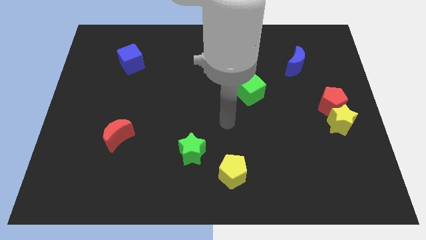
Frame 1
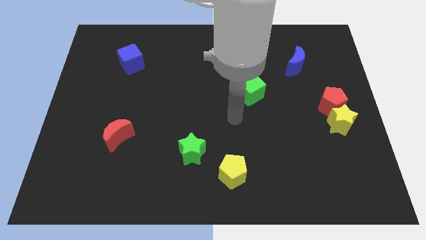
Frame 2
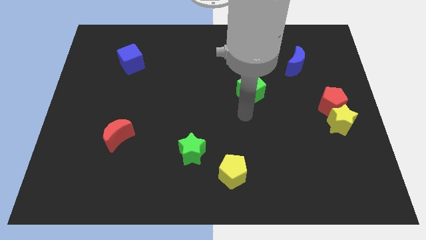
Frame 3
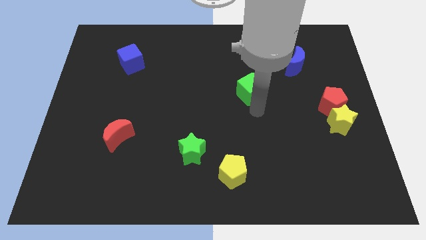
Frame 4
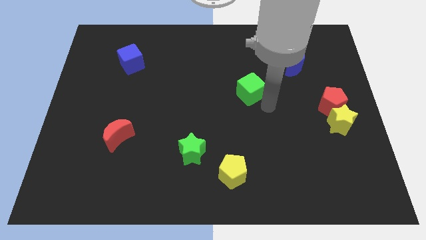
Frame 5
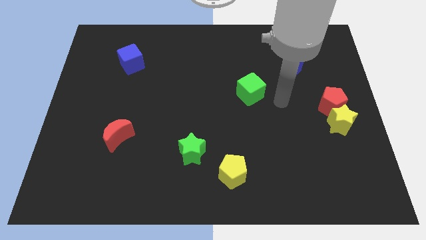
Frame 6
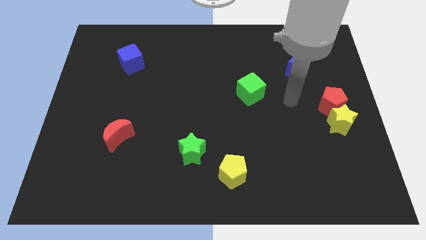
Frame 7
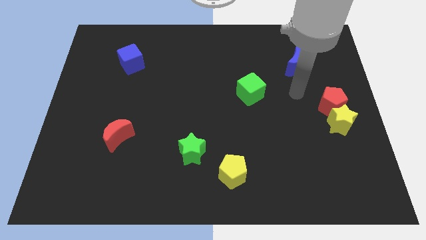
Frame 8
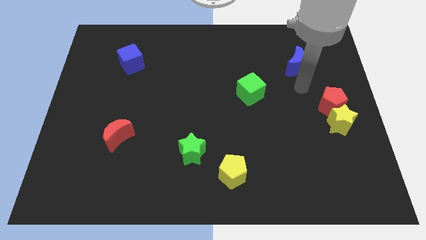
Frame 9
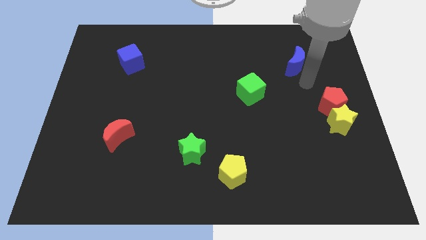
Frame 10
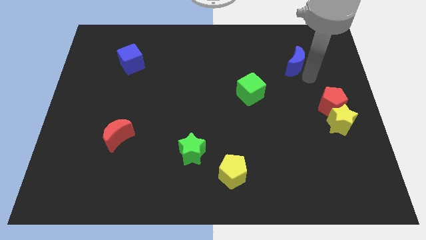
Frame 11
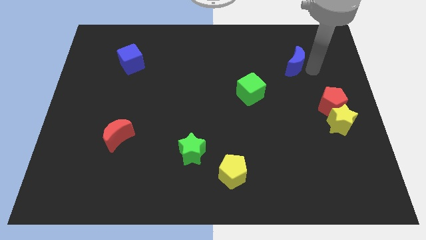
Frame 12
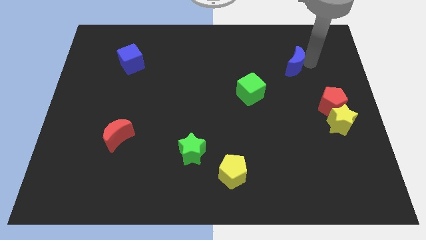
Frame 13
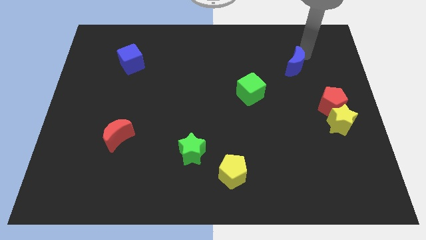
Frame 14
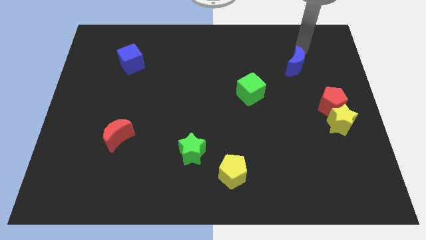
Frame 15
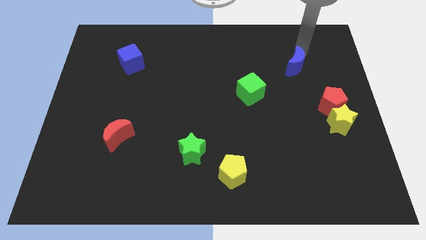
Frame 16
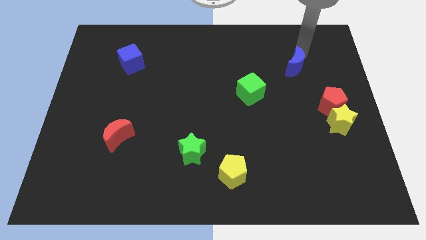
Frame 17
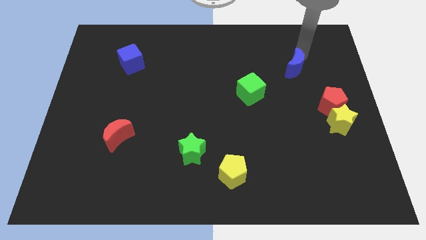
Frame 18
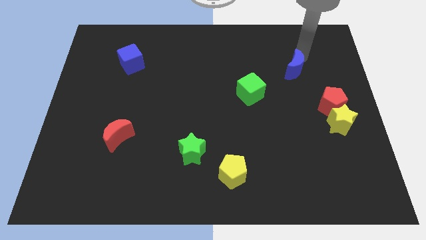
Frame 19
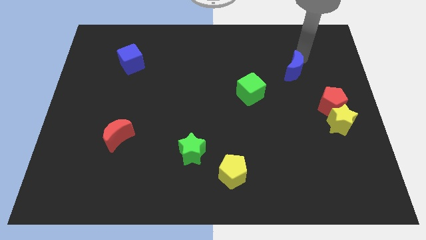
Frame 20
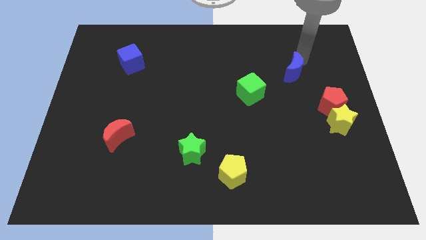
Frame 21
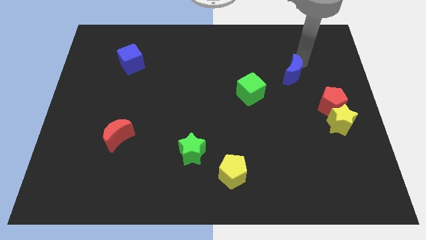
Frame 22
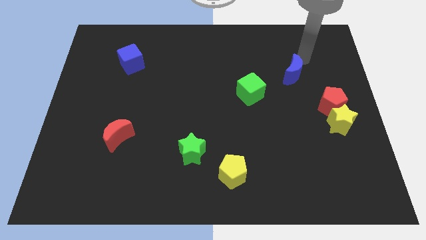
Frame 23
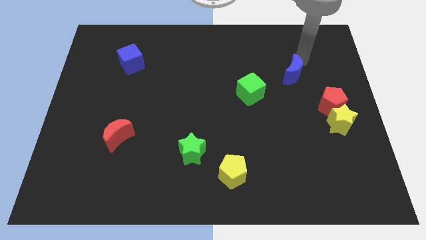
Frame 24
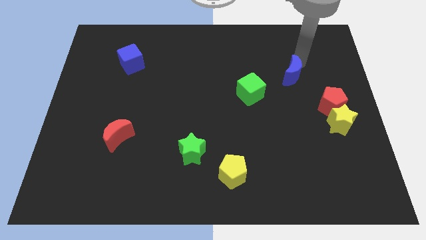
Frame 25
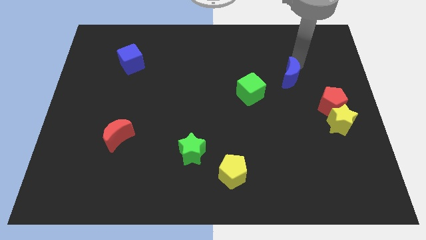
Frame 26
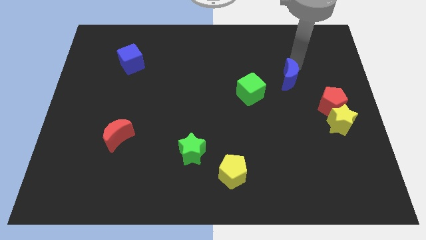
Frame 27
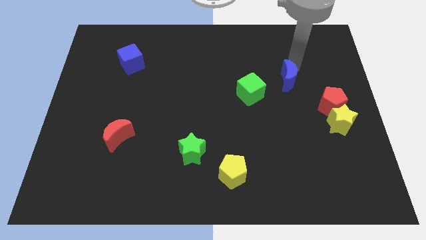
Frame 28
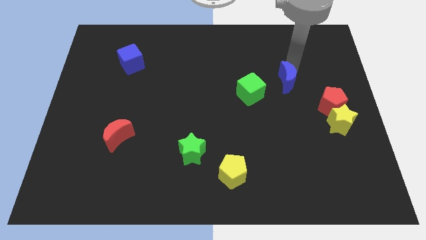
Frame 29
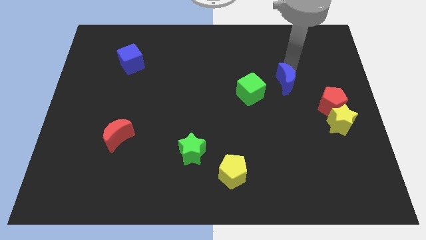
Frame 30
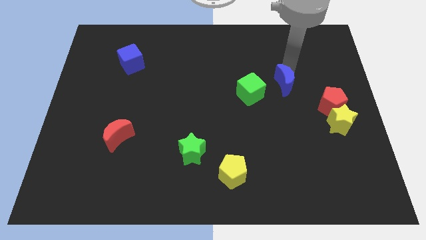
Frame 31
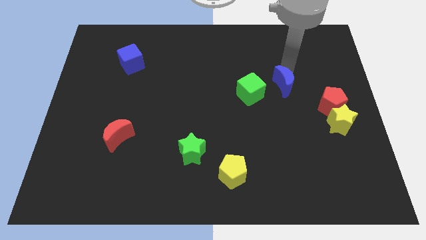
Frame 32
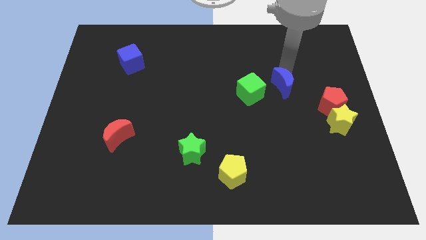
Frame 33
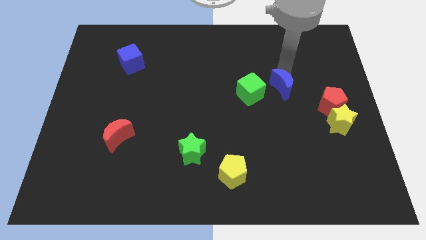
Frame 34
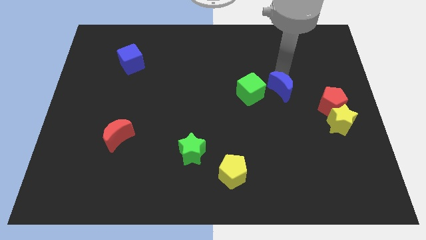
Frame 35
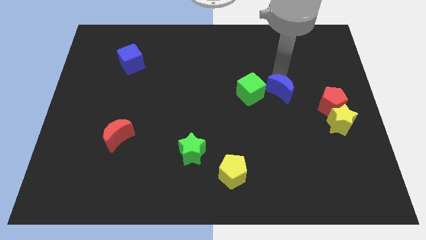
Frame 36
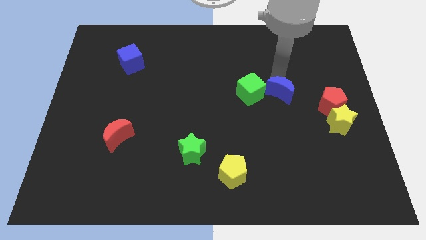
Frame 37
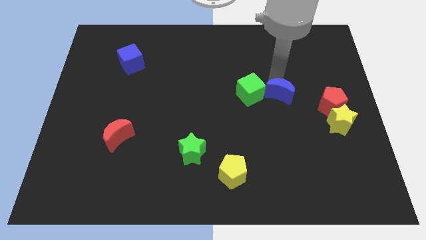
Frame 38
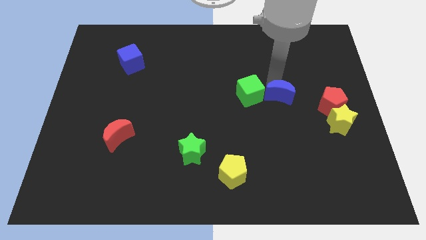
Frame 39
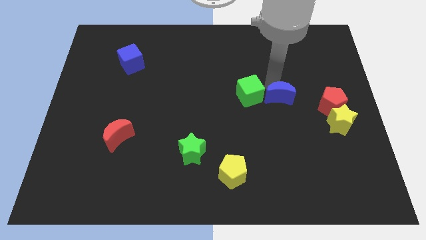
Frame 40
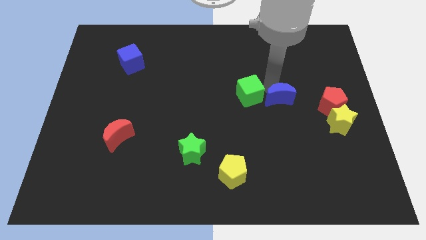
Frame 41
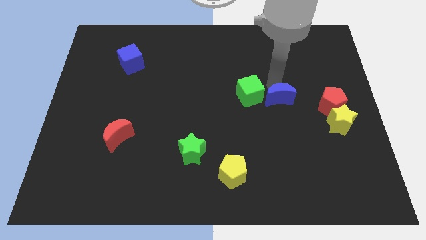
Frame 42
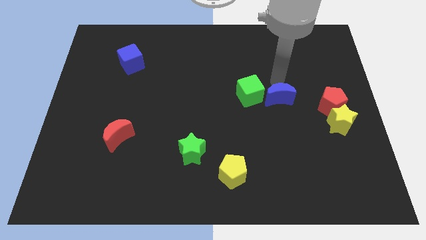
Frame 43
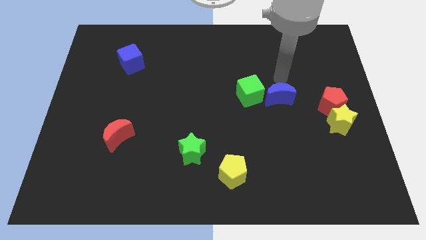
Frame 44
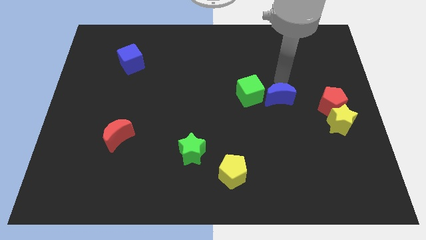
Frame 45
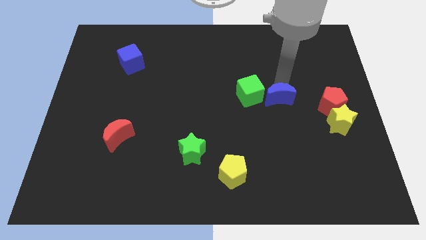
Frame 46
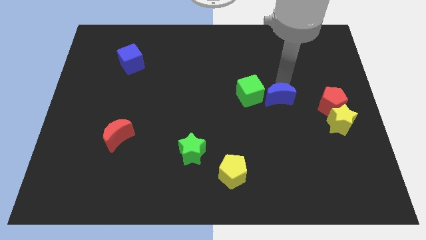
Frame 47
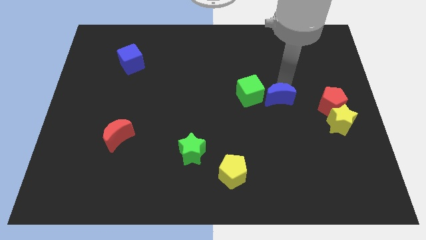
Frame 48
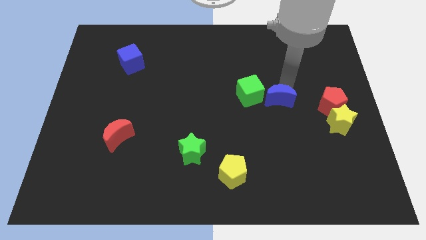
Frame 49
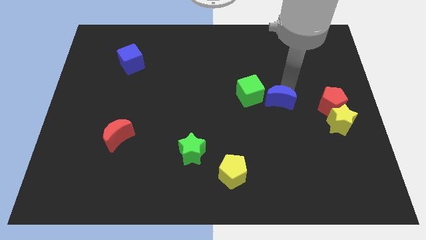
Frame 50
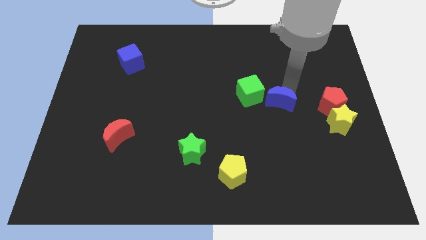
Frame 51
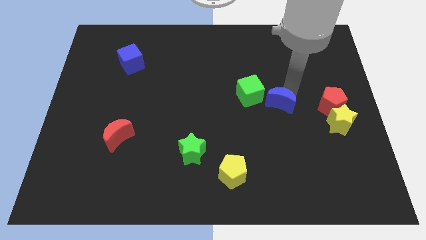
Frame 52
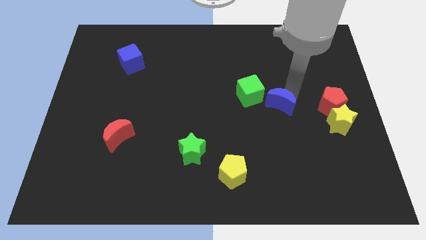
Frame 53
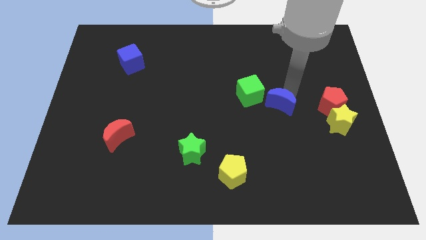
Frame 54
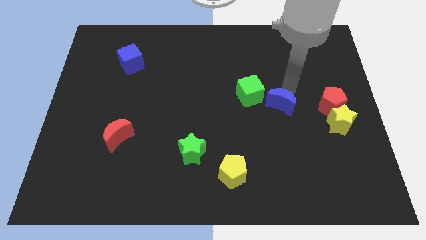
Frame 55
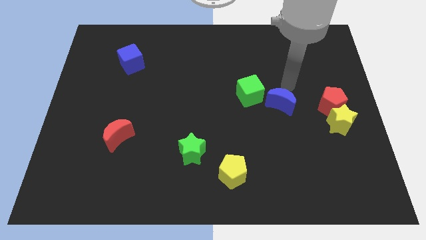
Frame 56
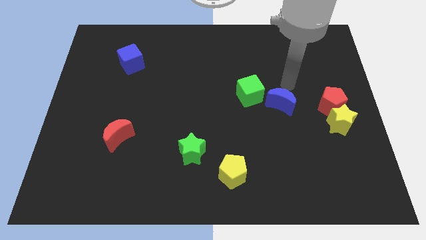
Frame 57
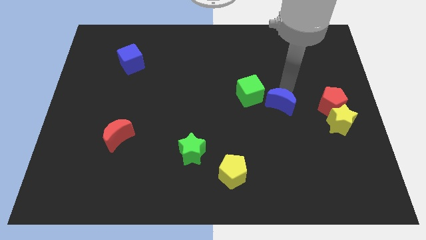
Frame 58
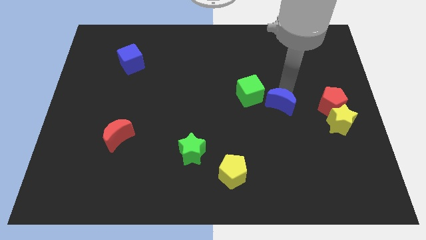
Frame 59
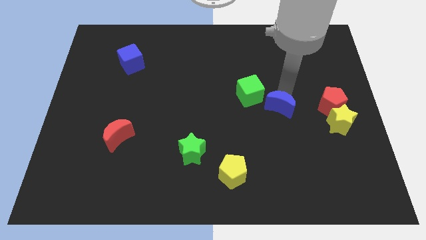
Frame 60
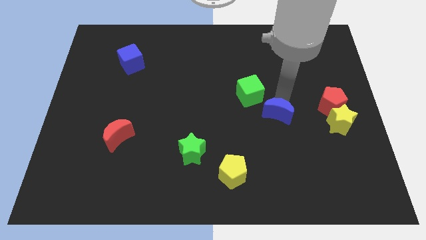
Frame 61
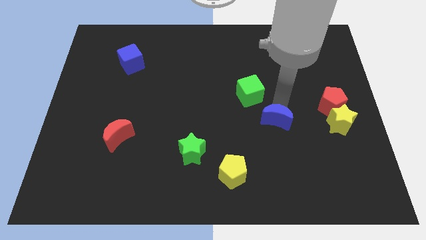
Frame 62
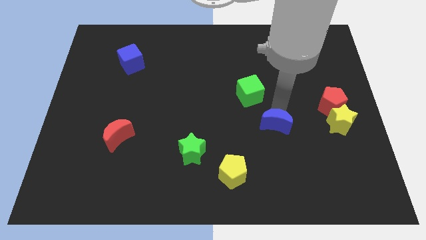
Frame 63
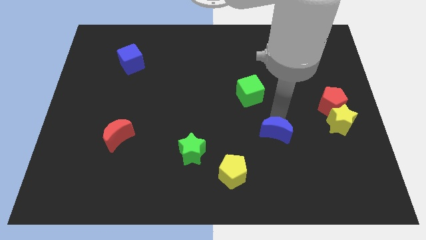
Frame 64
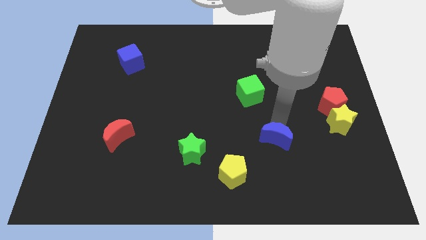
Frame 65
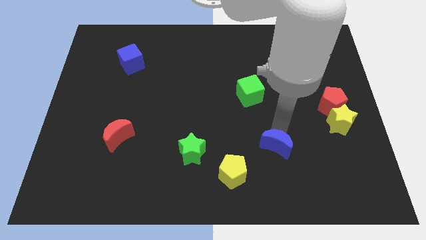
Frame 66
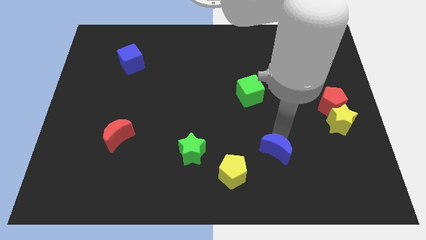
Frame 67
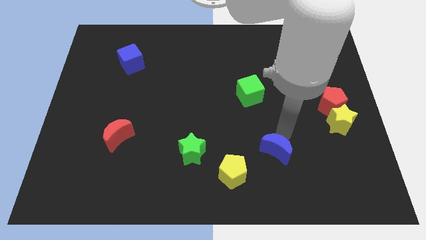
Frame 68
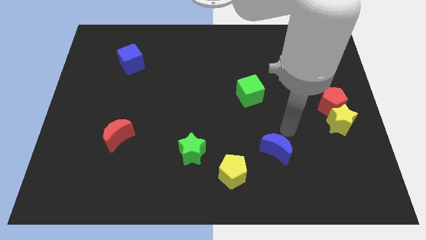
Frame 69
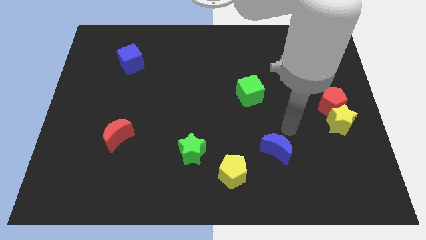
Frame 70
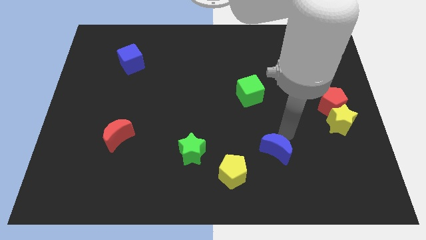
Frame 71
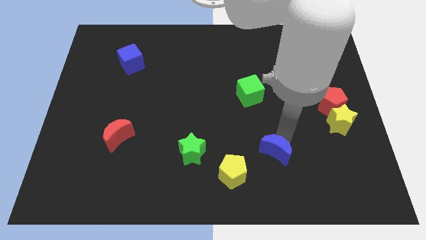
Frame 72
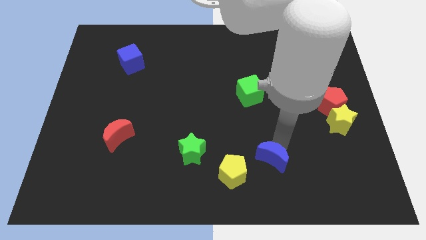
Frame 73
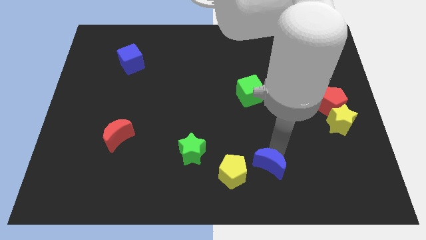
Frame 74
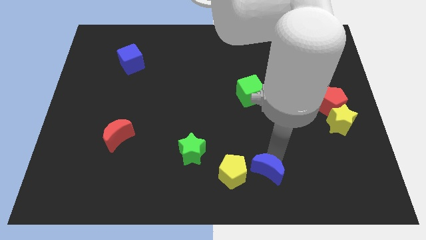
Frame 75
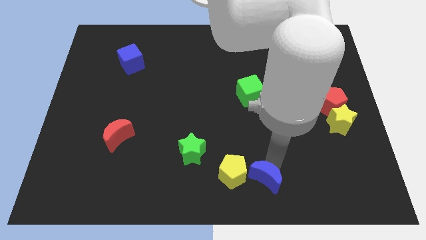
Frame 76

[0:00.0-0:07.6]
slide the blue moon to the bottom side
